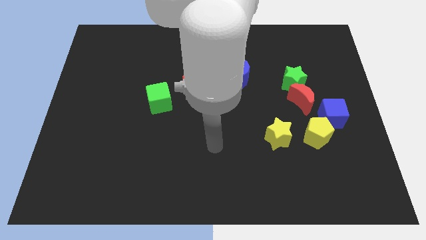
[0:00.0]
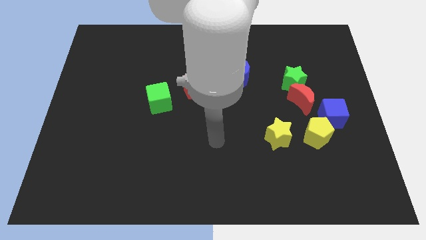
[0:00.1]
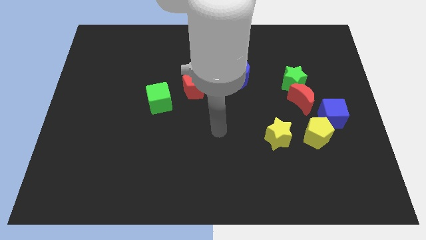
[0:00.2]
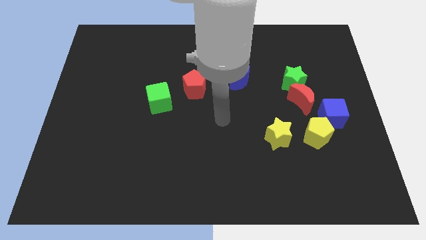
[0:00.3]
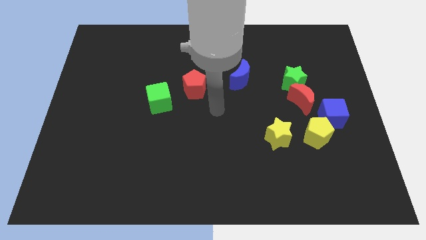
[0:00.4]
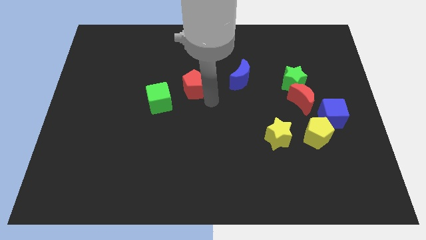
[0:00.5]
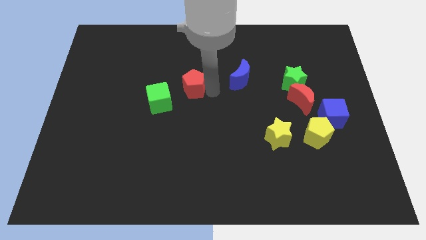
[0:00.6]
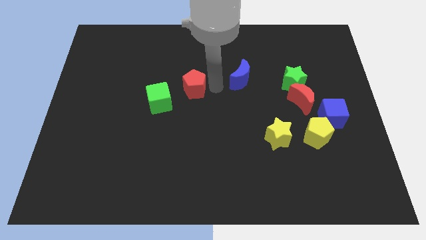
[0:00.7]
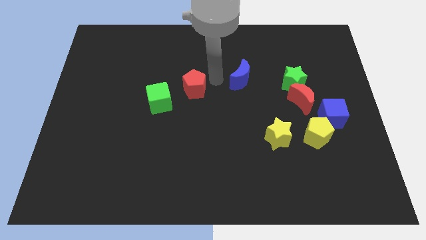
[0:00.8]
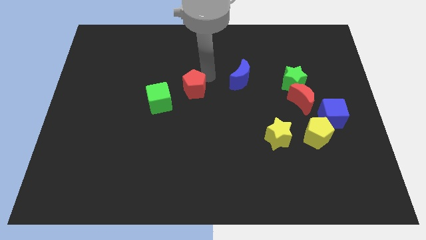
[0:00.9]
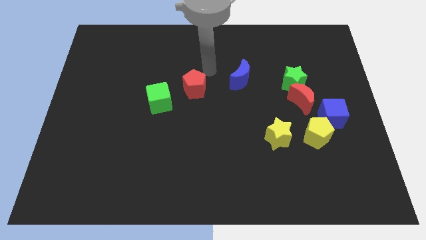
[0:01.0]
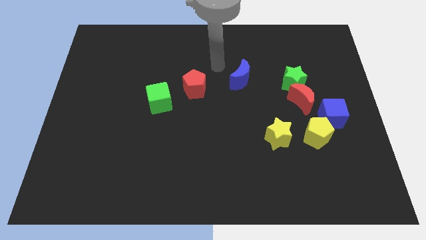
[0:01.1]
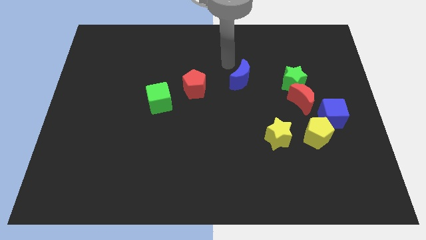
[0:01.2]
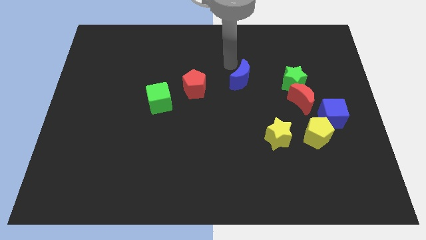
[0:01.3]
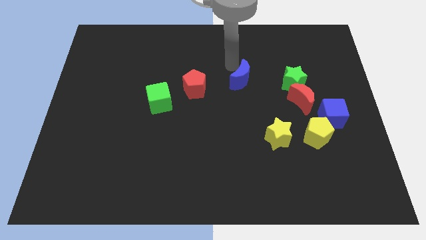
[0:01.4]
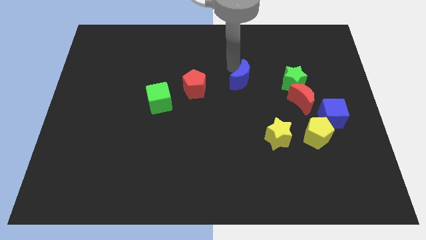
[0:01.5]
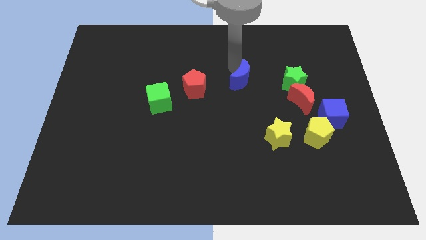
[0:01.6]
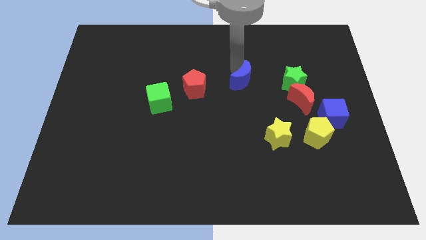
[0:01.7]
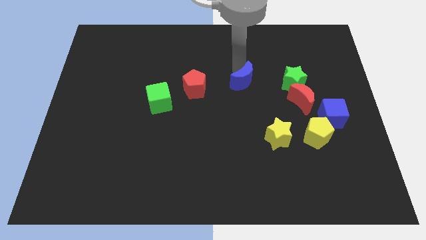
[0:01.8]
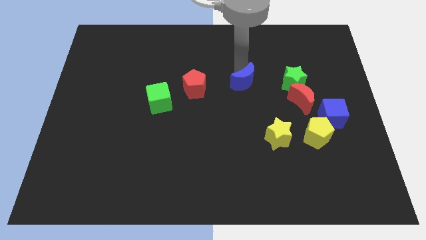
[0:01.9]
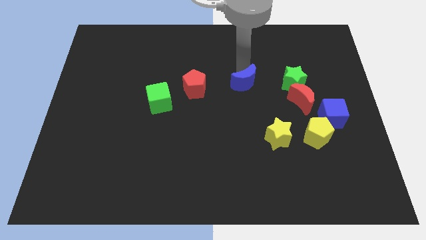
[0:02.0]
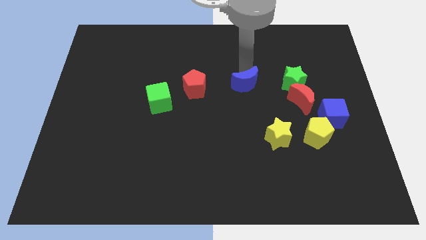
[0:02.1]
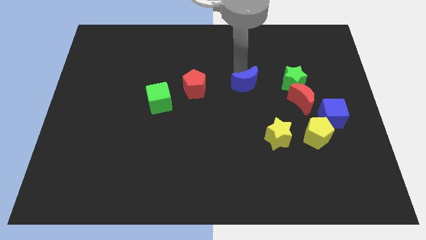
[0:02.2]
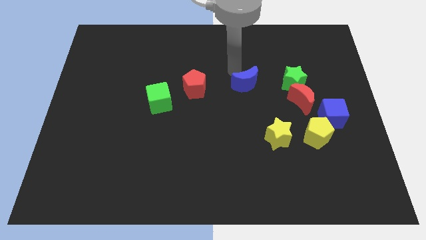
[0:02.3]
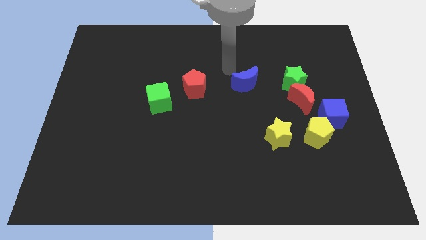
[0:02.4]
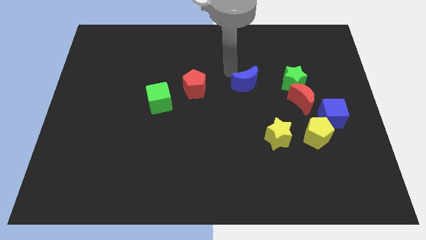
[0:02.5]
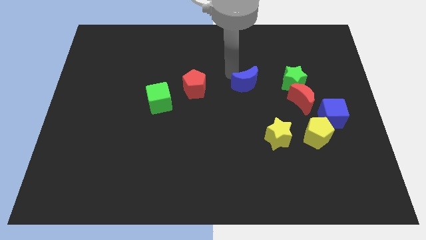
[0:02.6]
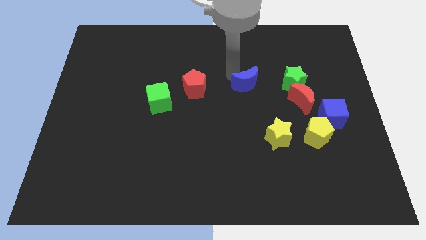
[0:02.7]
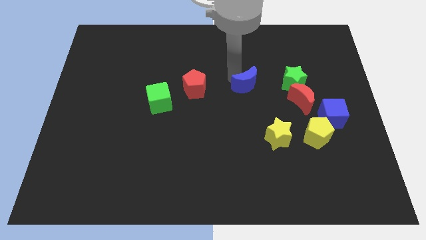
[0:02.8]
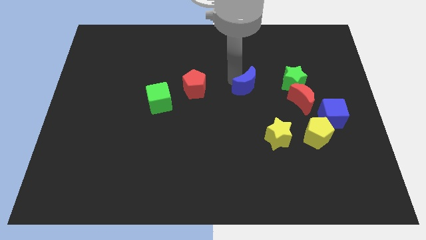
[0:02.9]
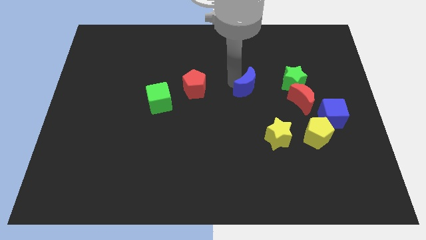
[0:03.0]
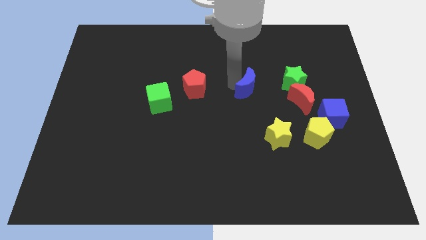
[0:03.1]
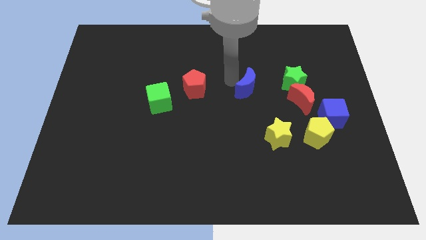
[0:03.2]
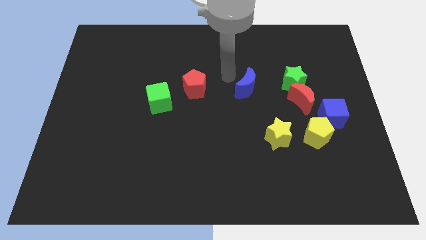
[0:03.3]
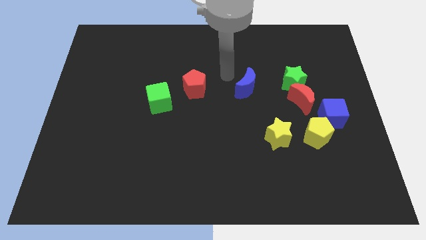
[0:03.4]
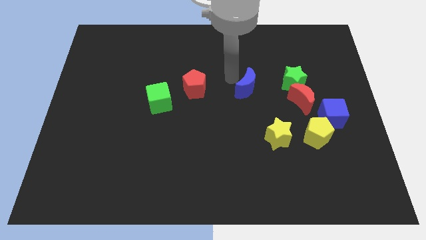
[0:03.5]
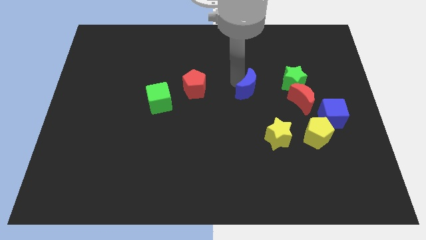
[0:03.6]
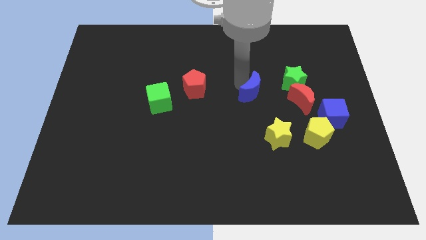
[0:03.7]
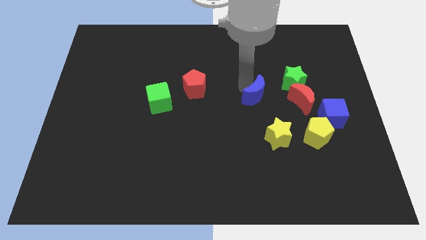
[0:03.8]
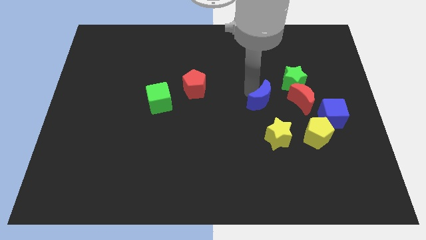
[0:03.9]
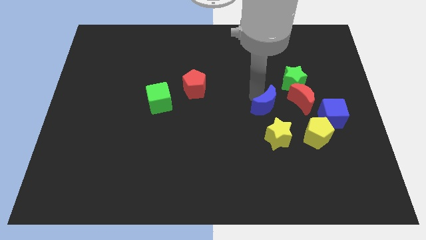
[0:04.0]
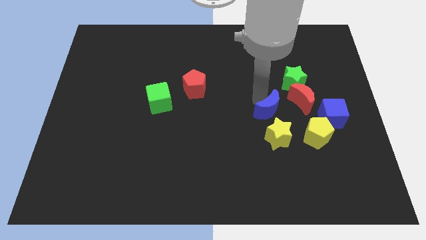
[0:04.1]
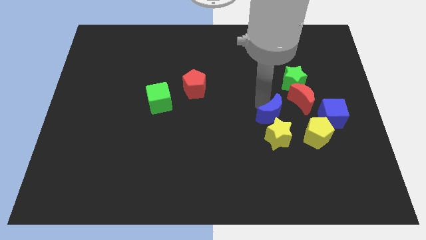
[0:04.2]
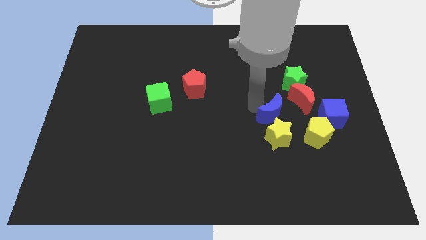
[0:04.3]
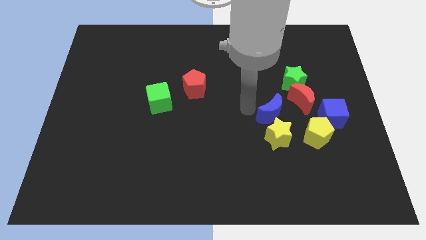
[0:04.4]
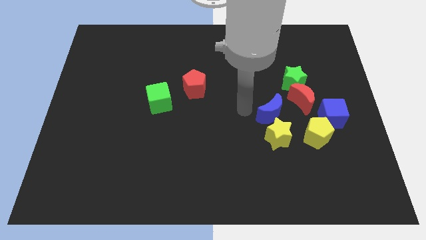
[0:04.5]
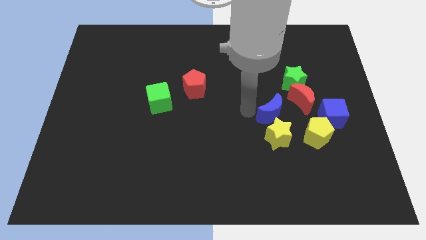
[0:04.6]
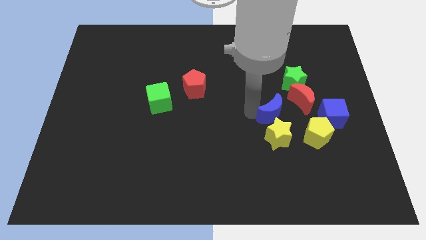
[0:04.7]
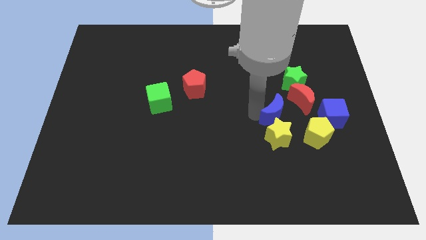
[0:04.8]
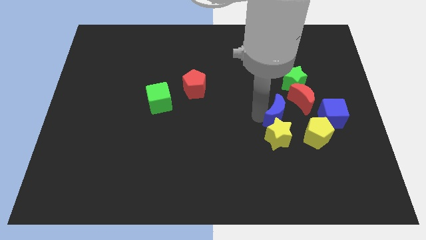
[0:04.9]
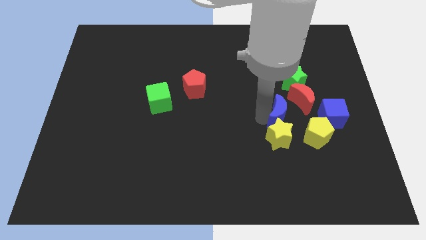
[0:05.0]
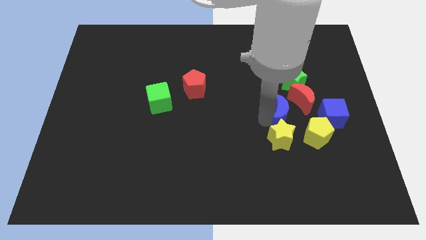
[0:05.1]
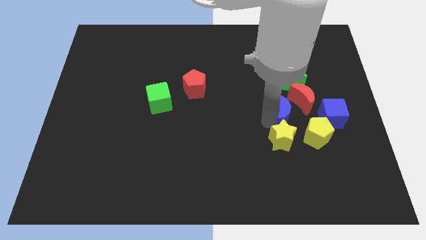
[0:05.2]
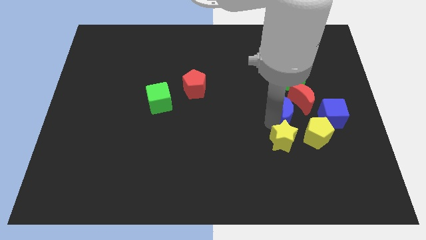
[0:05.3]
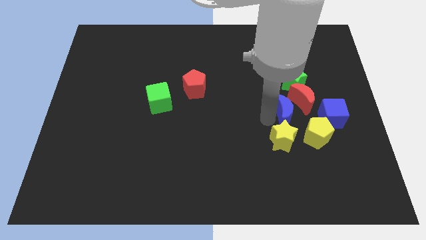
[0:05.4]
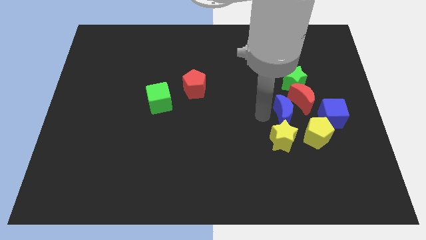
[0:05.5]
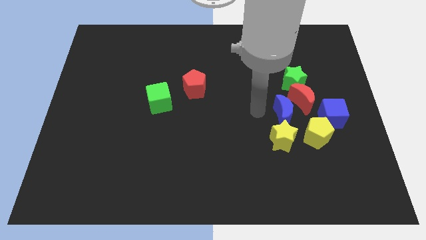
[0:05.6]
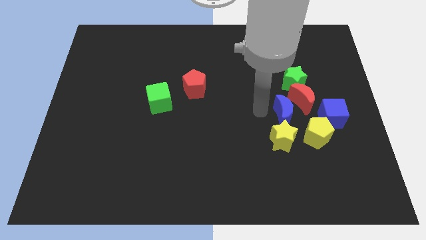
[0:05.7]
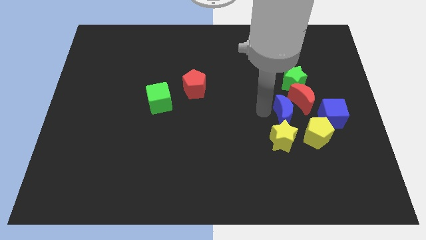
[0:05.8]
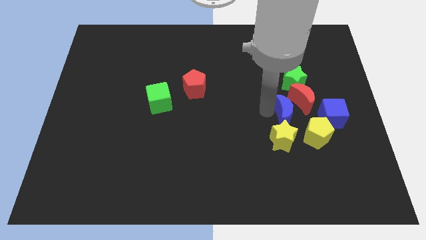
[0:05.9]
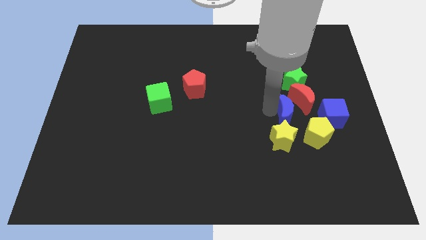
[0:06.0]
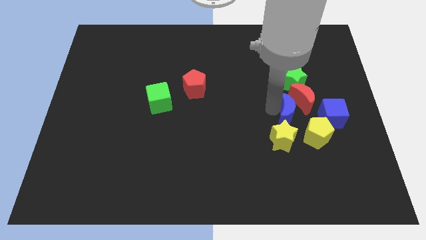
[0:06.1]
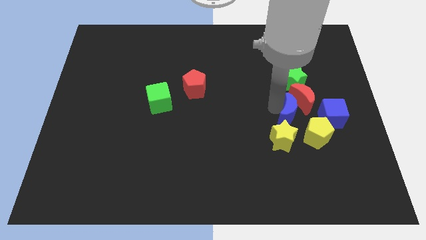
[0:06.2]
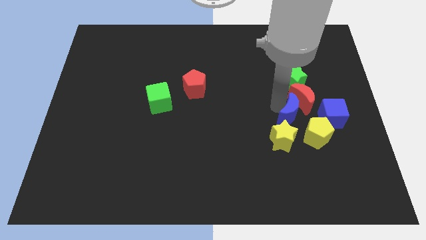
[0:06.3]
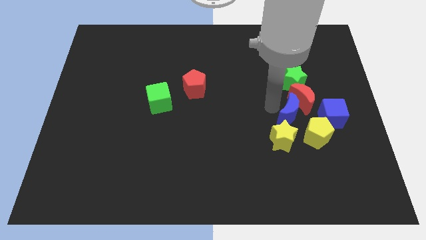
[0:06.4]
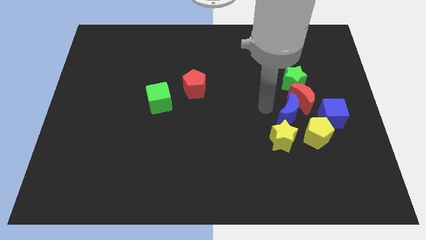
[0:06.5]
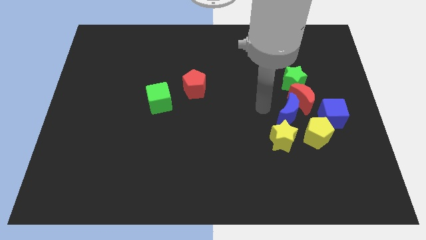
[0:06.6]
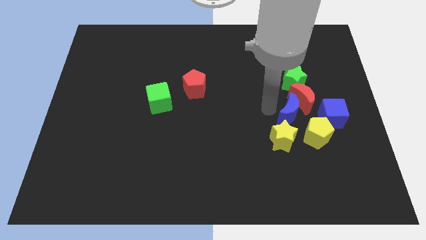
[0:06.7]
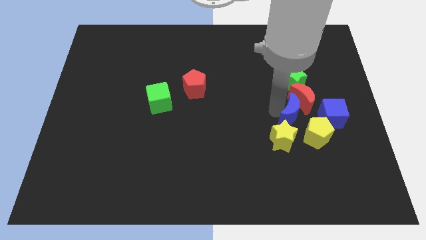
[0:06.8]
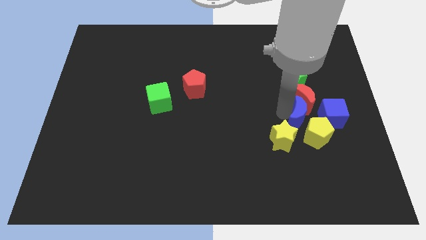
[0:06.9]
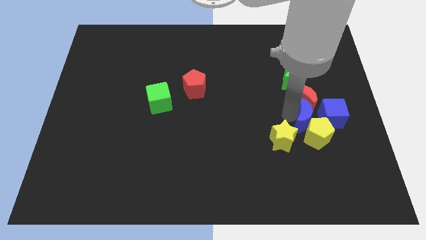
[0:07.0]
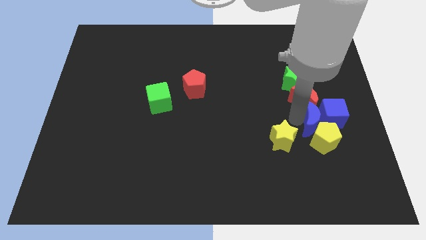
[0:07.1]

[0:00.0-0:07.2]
put the blue moon next to the blue cube

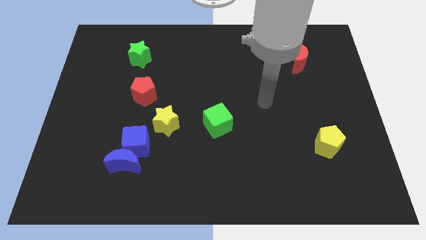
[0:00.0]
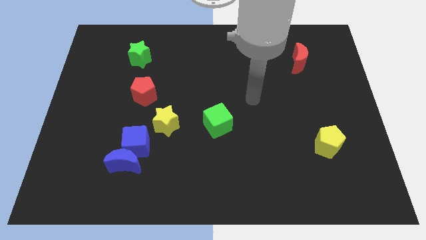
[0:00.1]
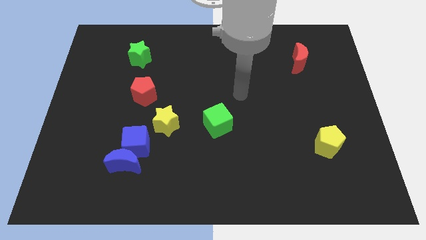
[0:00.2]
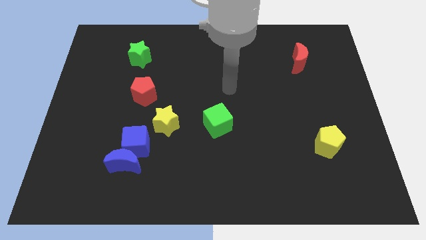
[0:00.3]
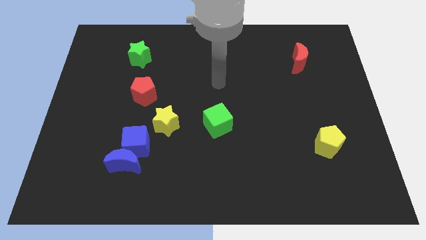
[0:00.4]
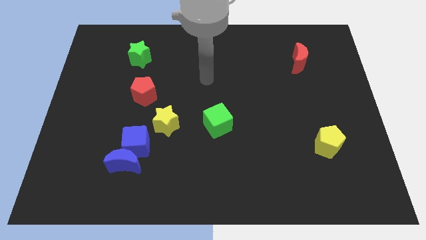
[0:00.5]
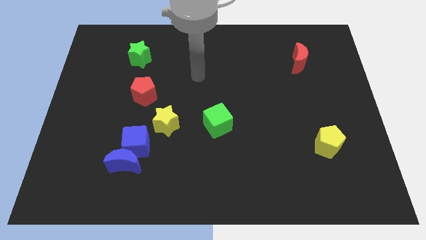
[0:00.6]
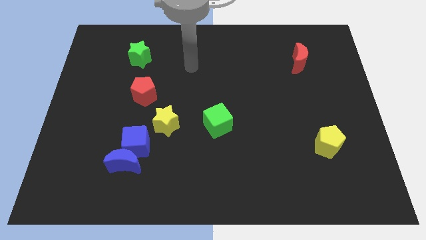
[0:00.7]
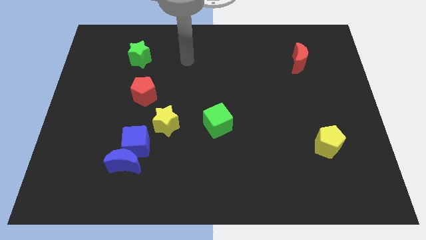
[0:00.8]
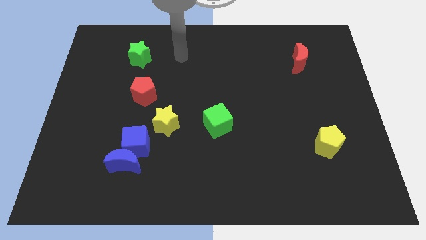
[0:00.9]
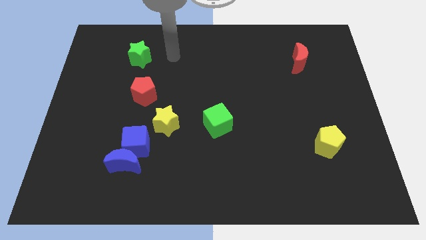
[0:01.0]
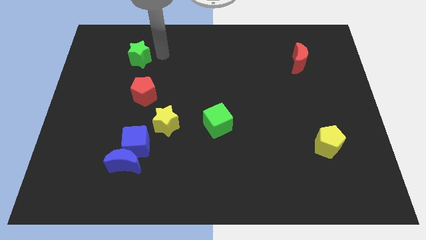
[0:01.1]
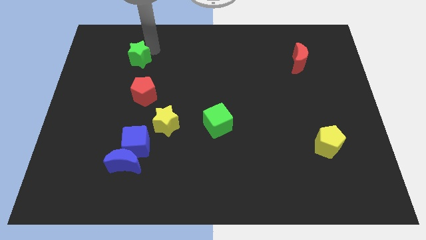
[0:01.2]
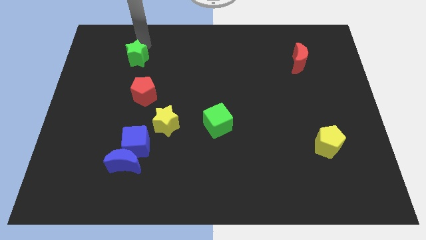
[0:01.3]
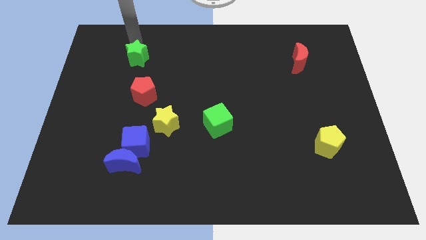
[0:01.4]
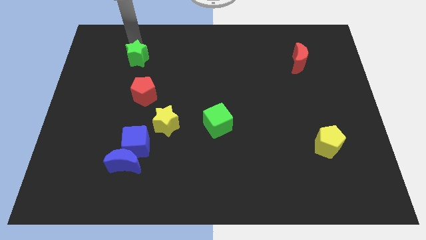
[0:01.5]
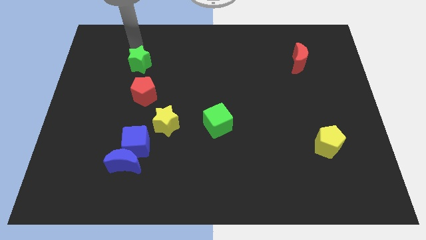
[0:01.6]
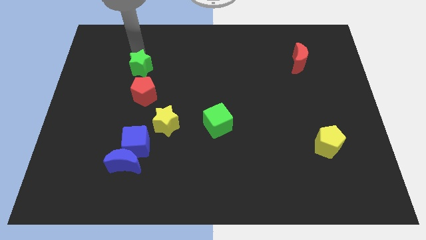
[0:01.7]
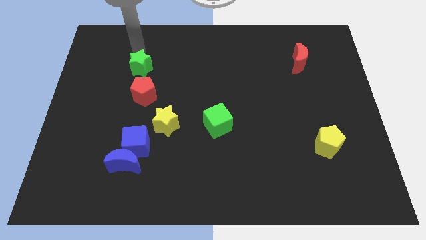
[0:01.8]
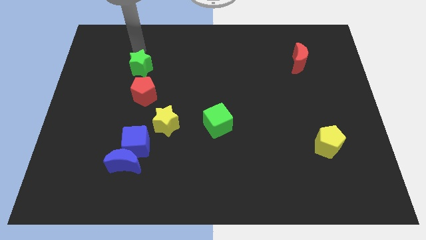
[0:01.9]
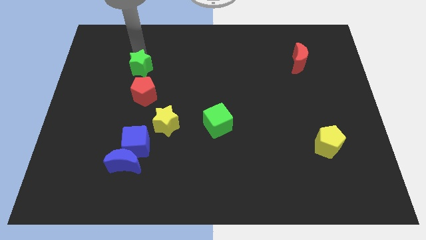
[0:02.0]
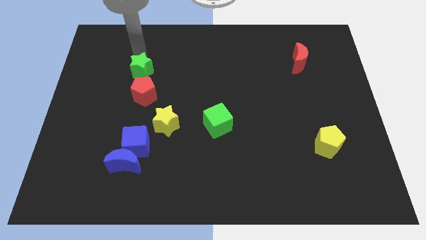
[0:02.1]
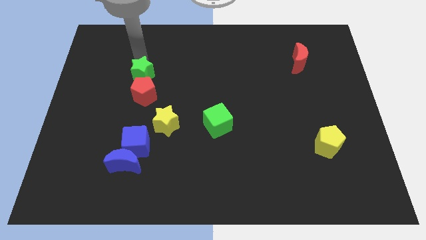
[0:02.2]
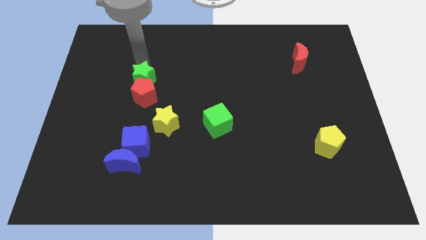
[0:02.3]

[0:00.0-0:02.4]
slide the green star towards the red pentagon
